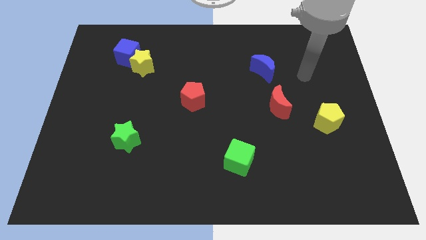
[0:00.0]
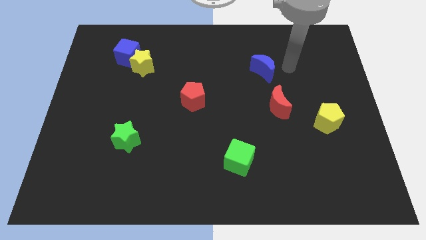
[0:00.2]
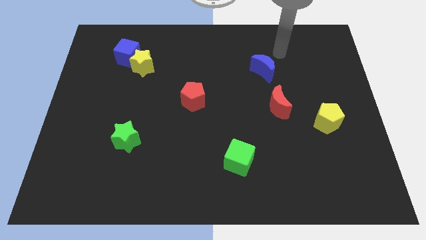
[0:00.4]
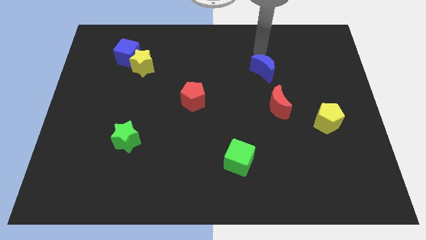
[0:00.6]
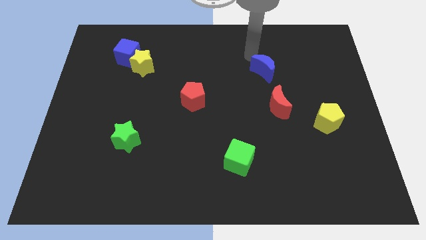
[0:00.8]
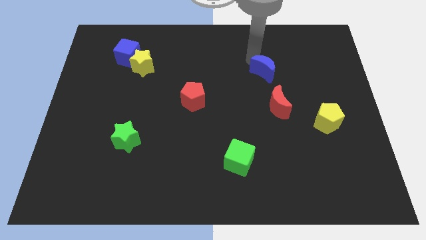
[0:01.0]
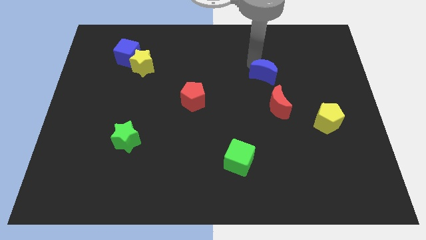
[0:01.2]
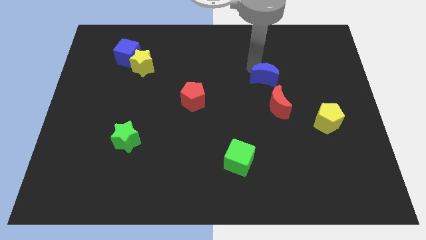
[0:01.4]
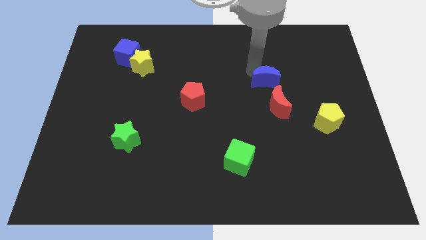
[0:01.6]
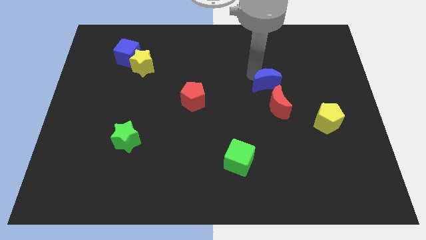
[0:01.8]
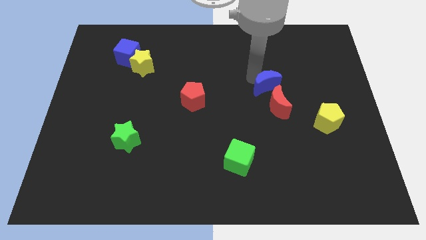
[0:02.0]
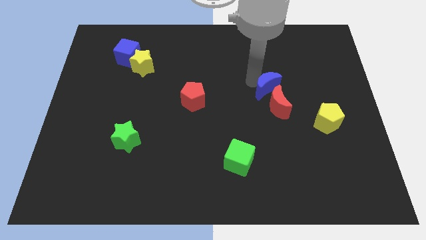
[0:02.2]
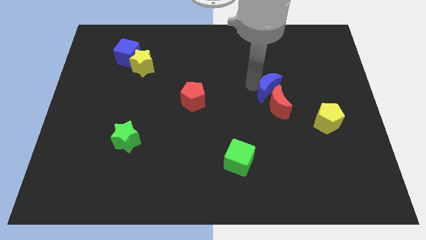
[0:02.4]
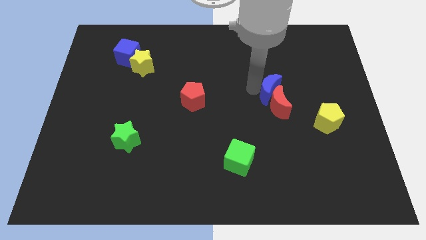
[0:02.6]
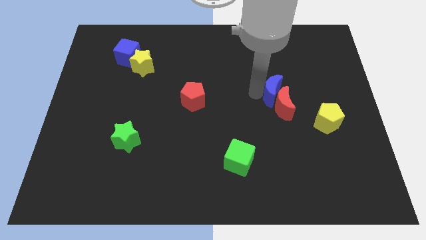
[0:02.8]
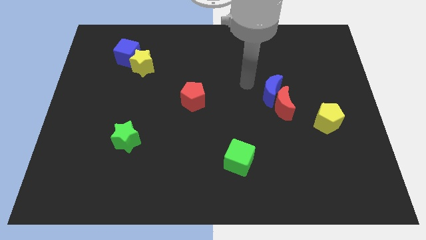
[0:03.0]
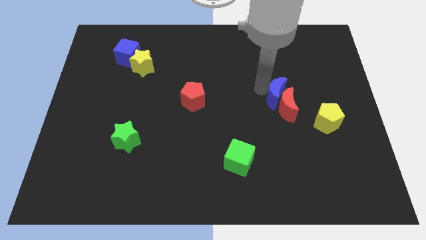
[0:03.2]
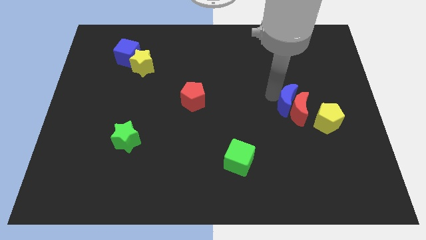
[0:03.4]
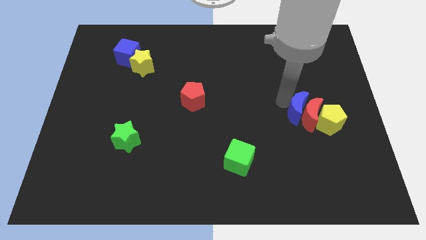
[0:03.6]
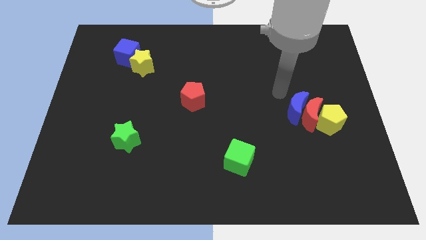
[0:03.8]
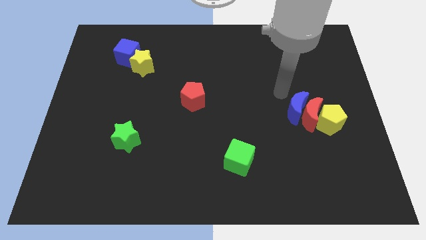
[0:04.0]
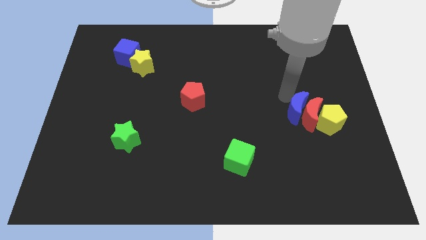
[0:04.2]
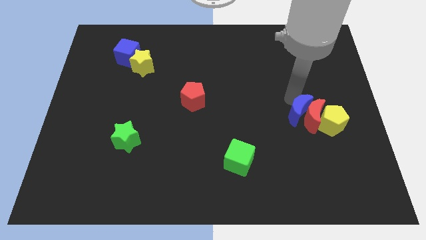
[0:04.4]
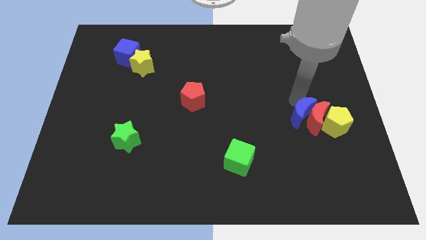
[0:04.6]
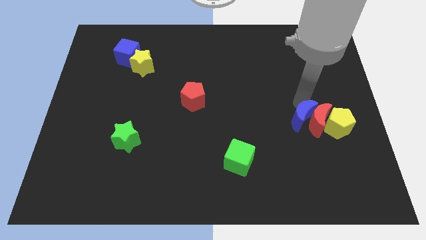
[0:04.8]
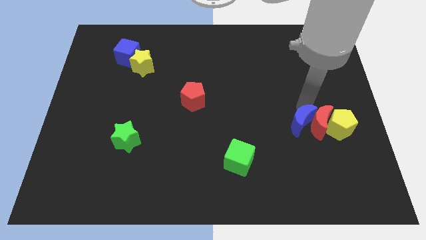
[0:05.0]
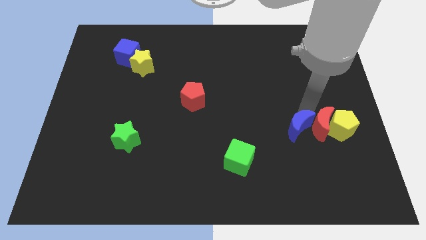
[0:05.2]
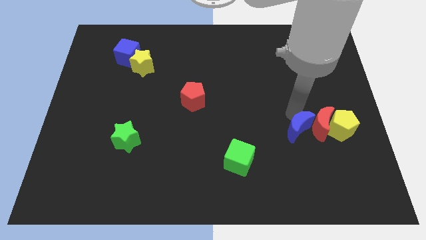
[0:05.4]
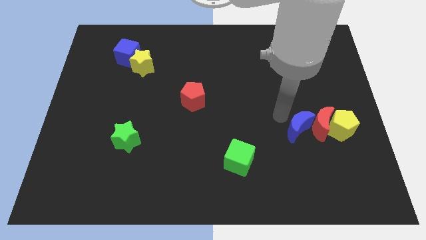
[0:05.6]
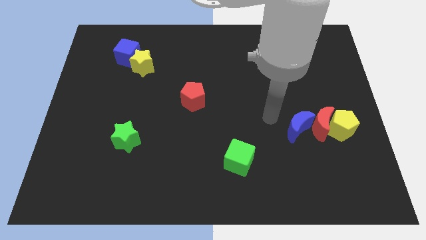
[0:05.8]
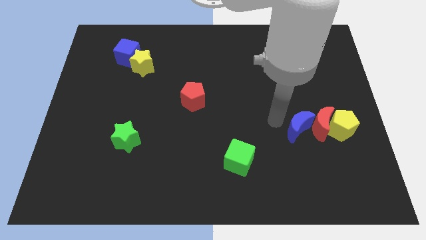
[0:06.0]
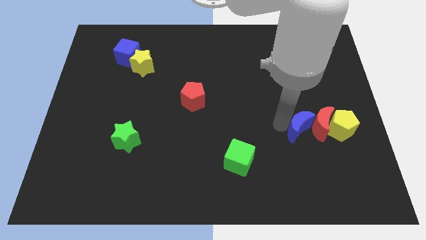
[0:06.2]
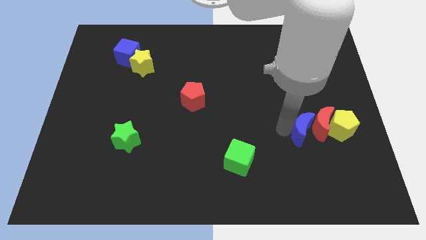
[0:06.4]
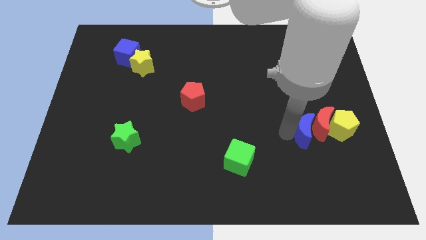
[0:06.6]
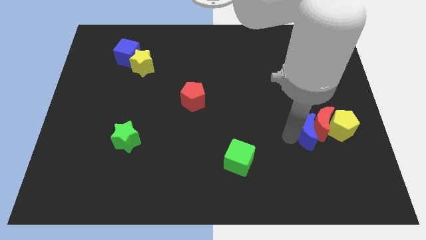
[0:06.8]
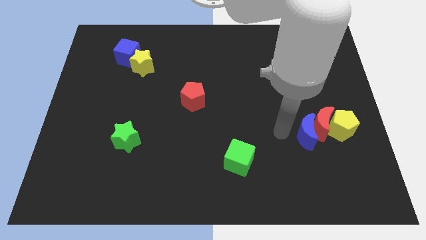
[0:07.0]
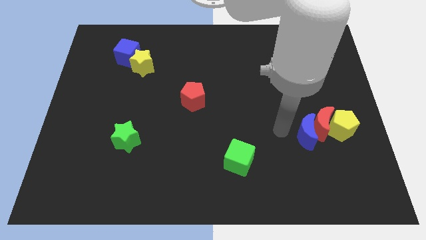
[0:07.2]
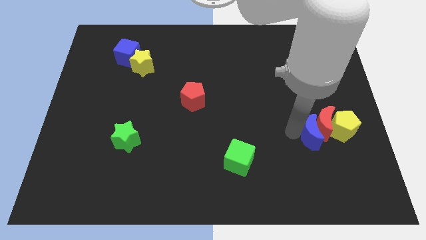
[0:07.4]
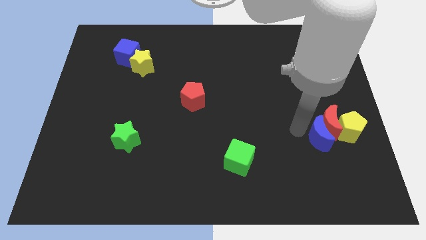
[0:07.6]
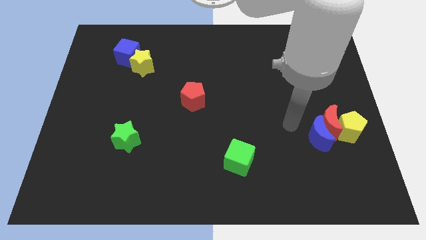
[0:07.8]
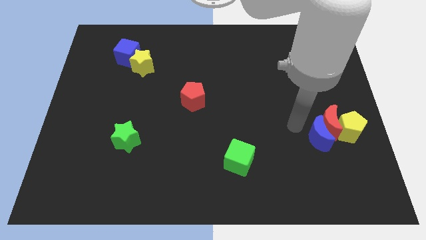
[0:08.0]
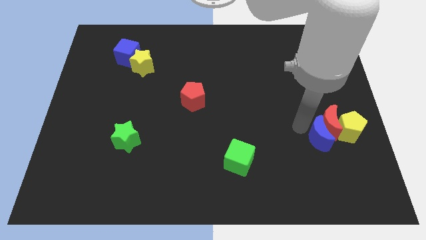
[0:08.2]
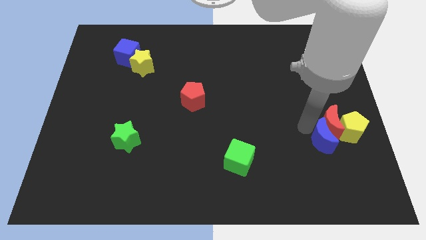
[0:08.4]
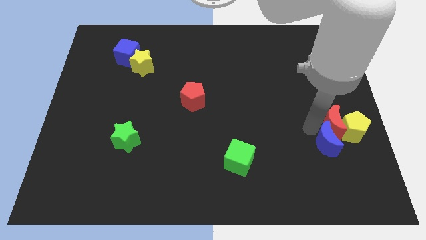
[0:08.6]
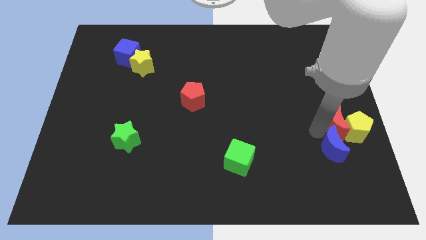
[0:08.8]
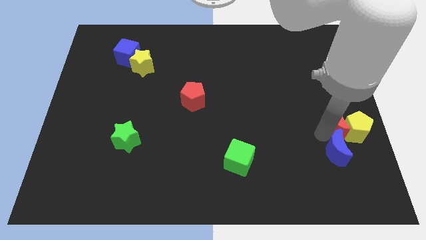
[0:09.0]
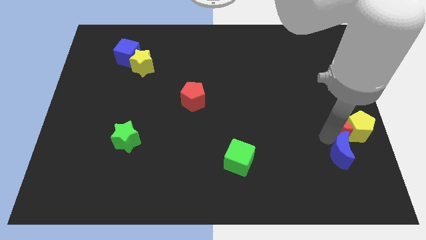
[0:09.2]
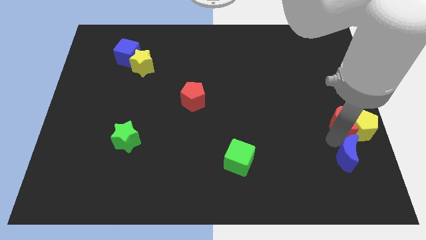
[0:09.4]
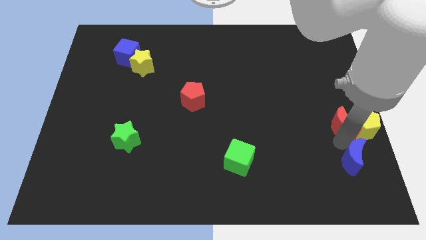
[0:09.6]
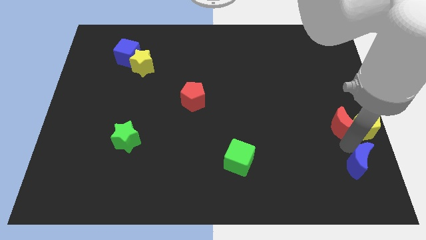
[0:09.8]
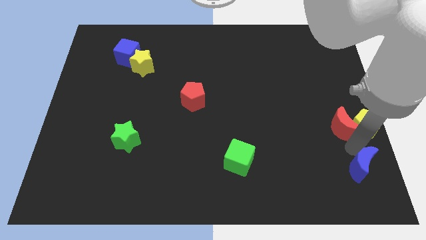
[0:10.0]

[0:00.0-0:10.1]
put the blue moon to the bottom right of the board
